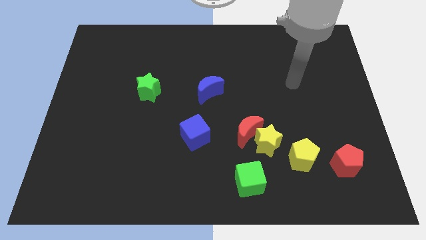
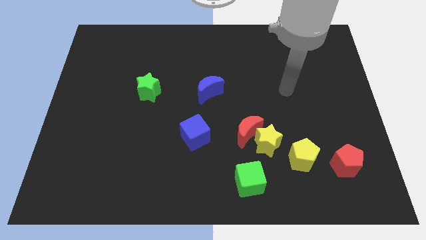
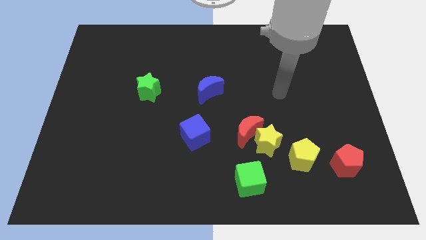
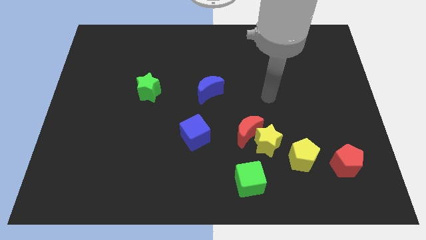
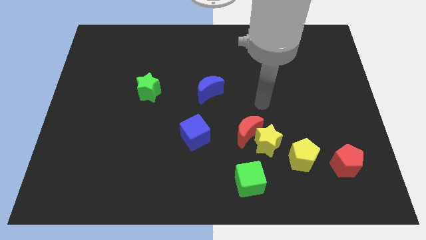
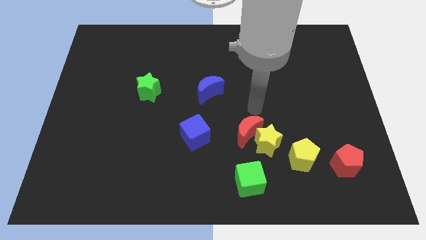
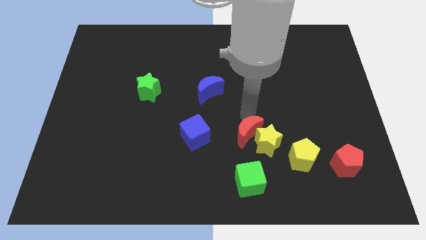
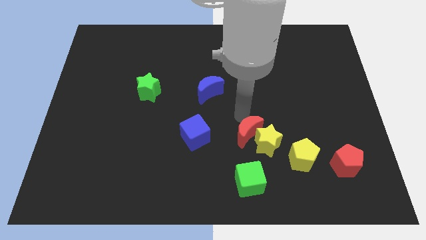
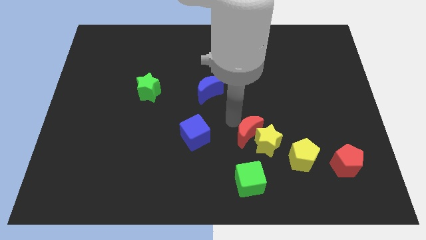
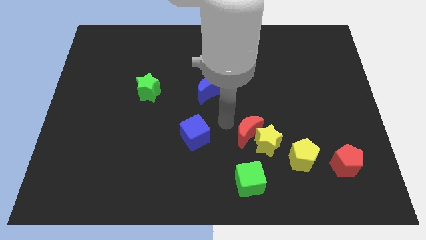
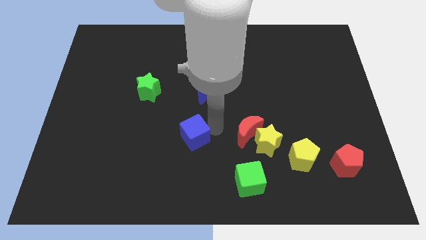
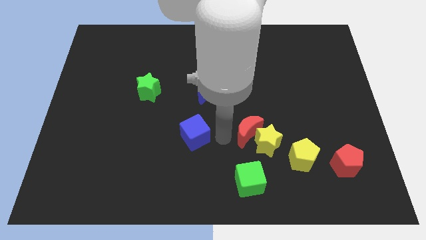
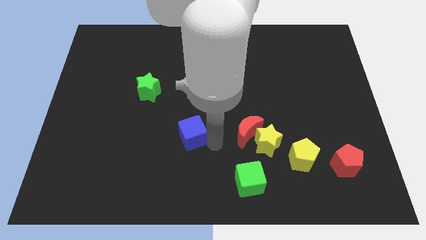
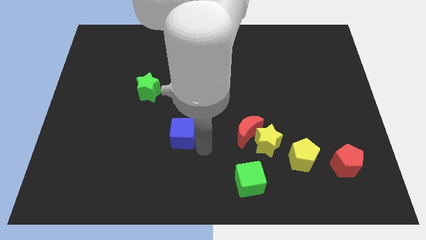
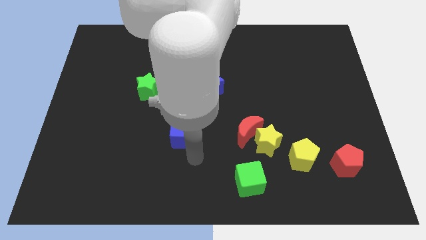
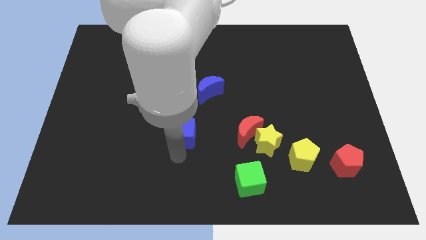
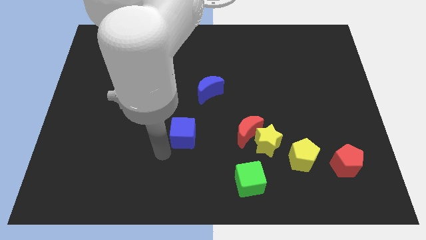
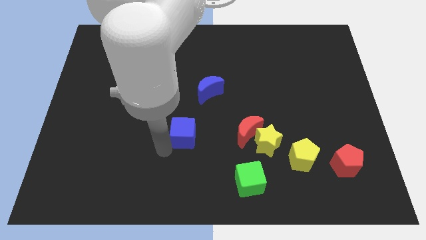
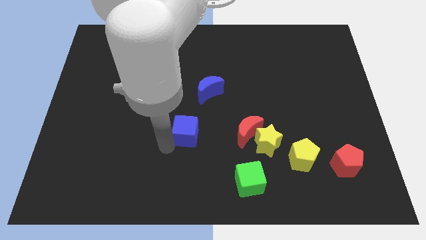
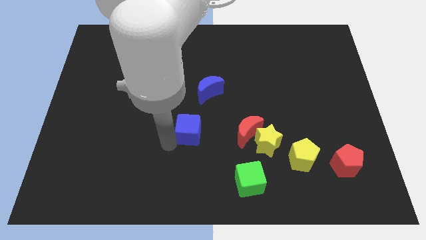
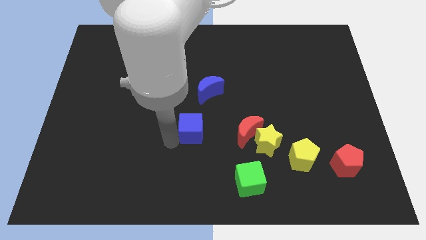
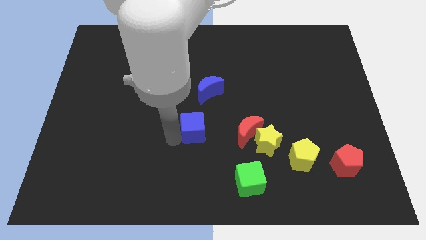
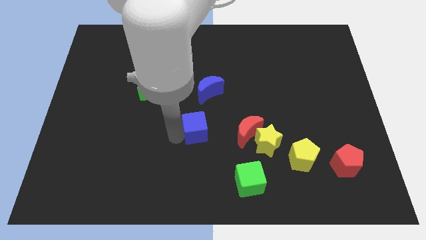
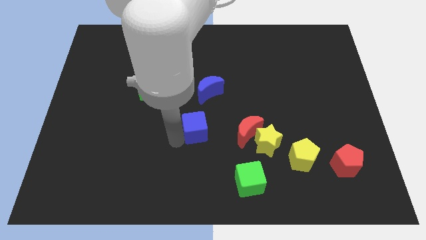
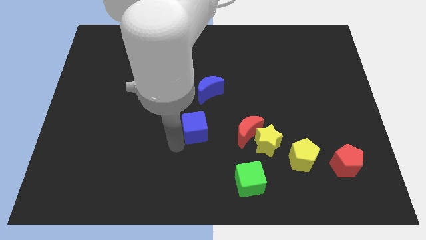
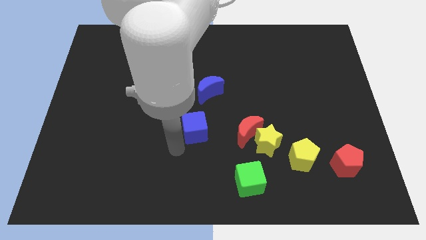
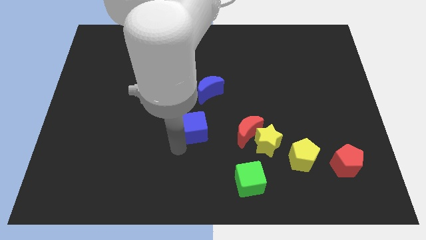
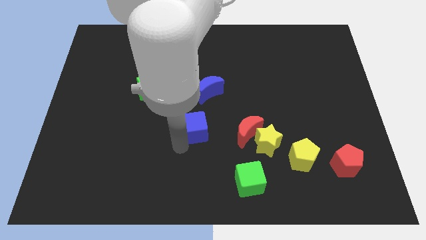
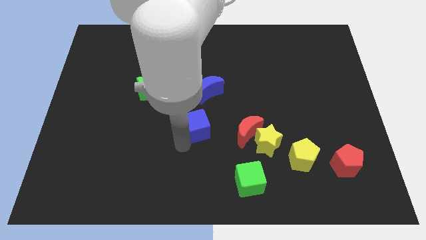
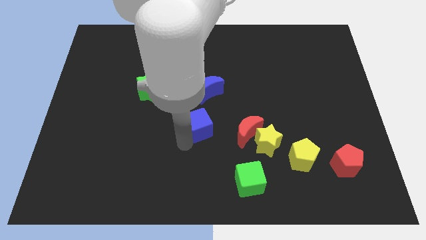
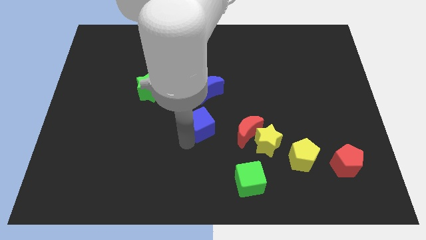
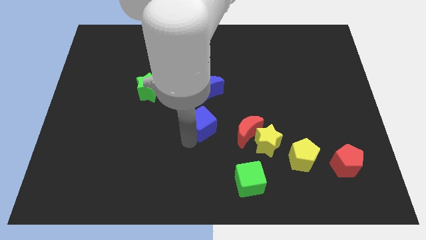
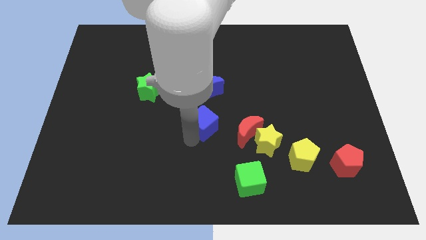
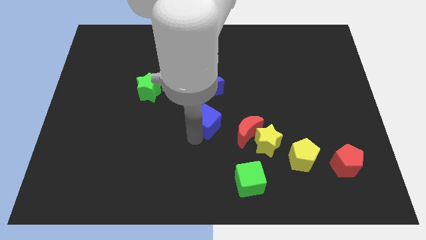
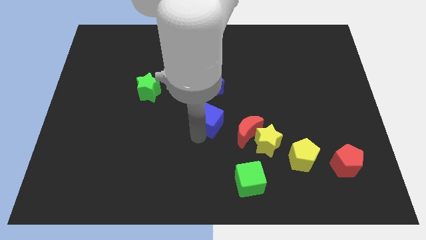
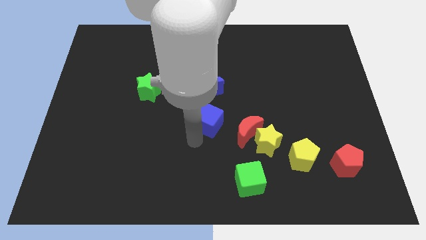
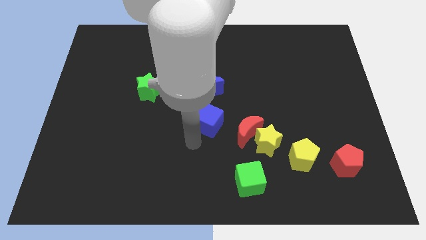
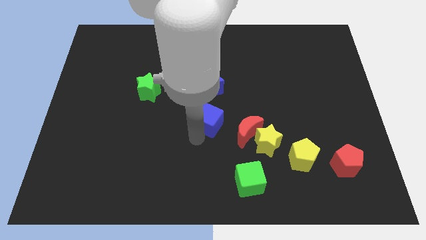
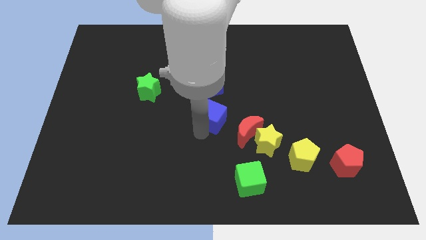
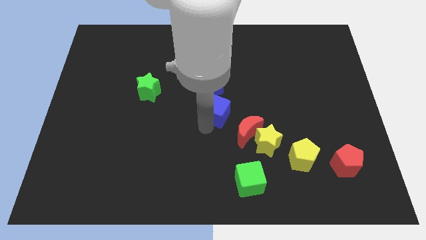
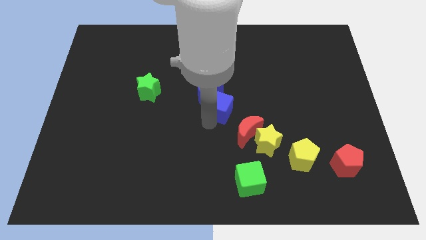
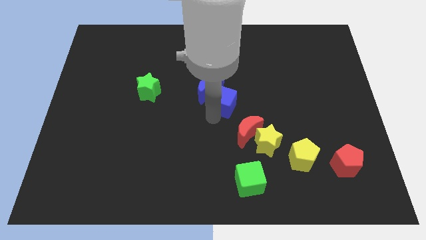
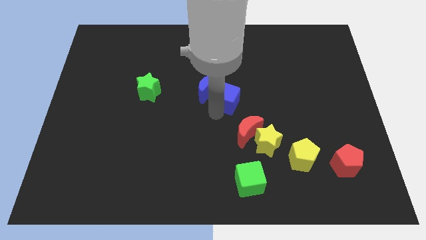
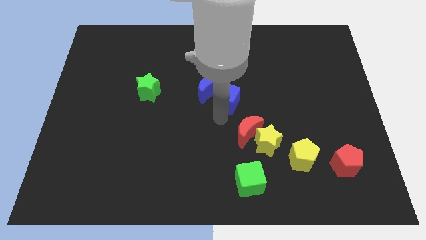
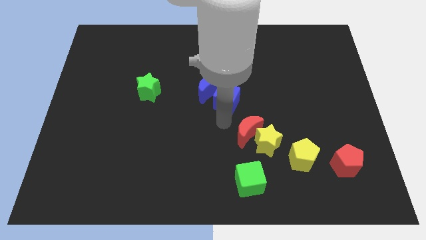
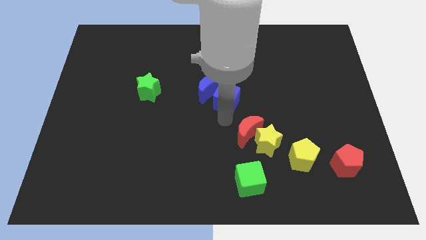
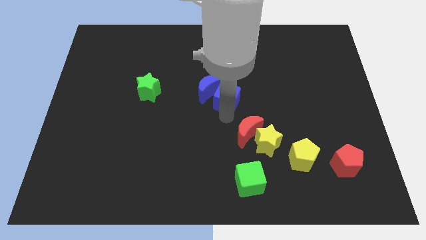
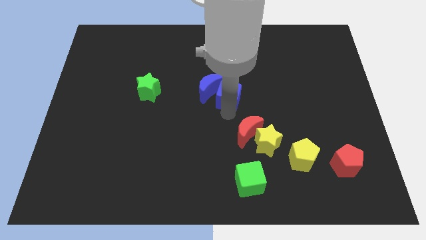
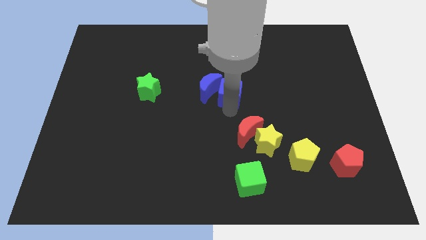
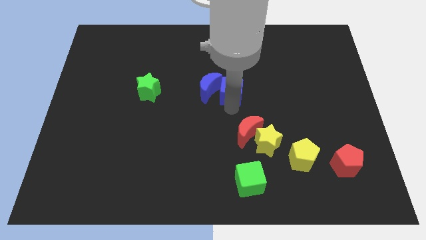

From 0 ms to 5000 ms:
slide the blue cube diagonally up and to the right of the blue moon
